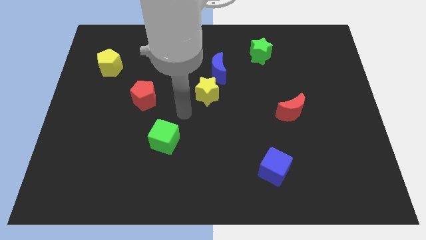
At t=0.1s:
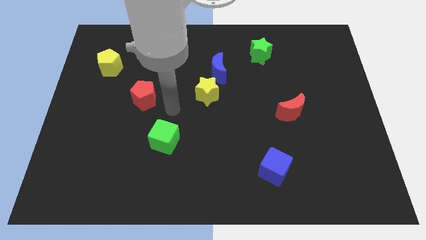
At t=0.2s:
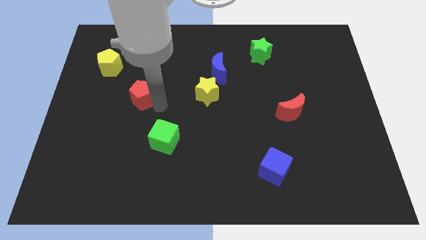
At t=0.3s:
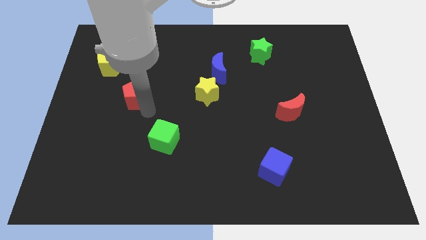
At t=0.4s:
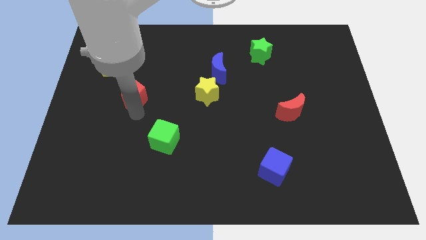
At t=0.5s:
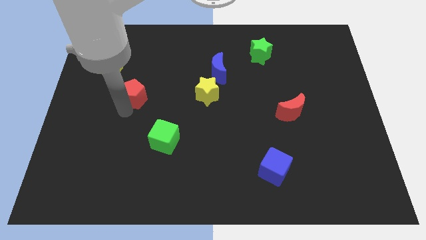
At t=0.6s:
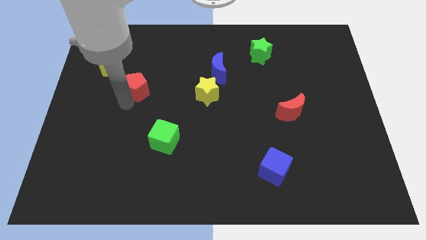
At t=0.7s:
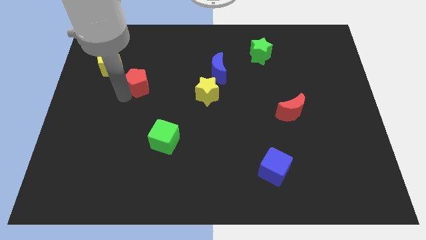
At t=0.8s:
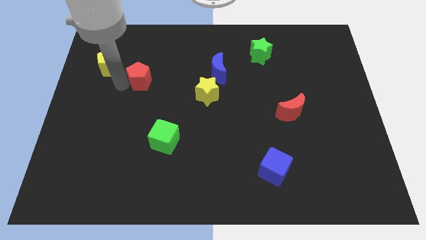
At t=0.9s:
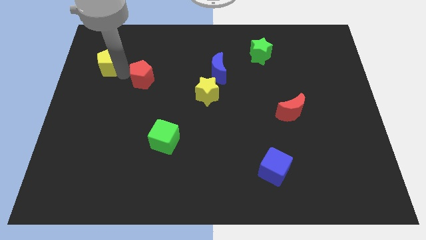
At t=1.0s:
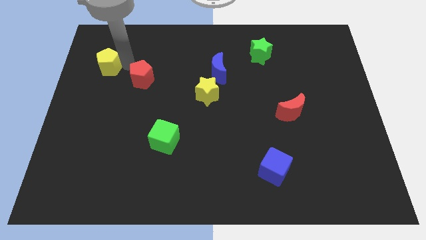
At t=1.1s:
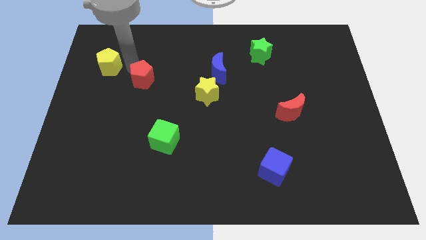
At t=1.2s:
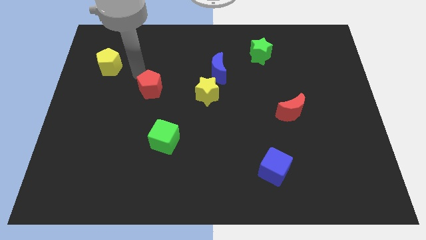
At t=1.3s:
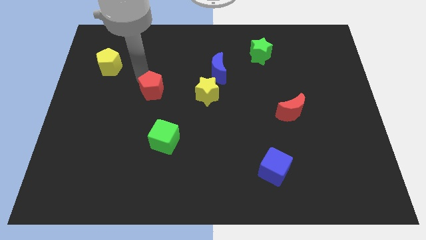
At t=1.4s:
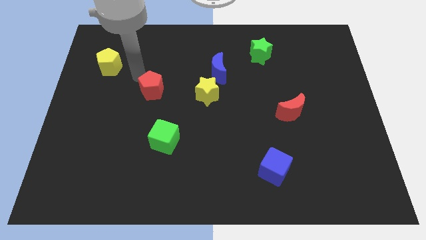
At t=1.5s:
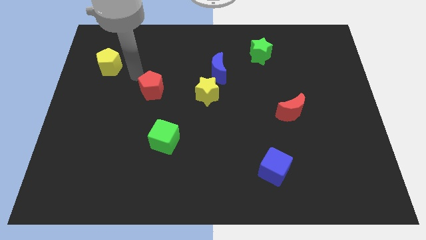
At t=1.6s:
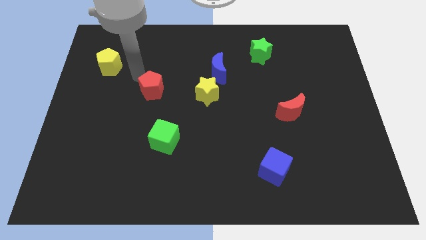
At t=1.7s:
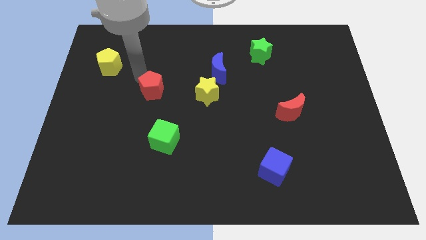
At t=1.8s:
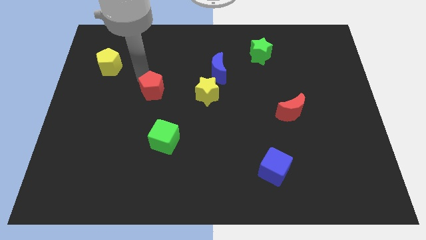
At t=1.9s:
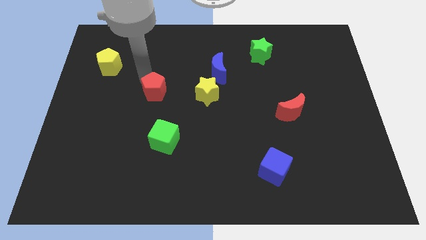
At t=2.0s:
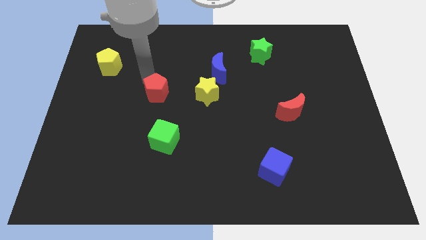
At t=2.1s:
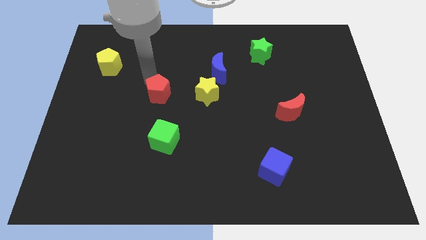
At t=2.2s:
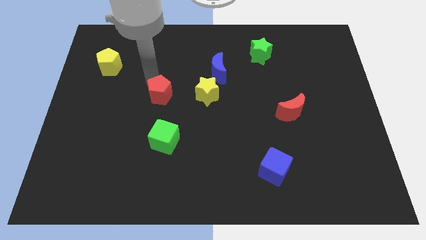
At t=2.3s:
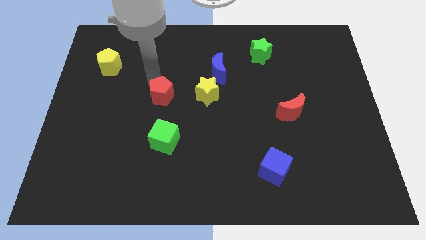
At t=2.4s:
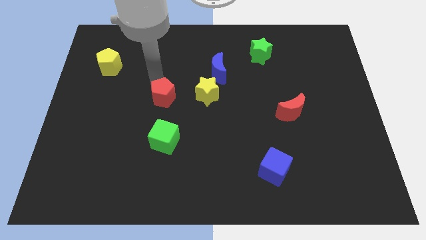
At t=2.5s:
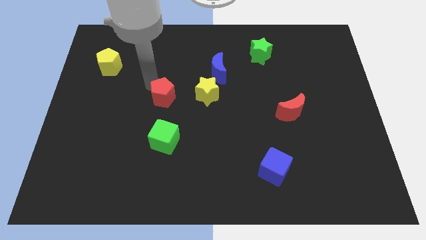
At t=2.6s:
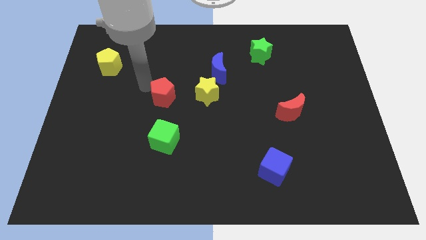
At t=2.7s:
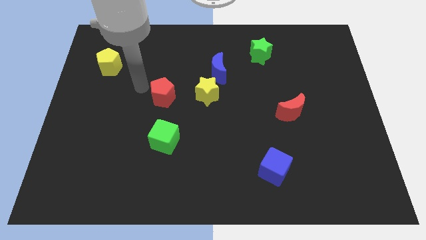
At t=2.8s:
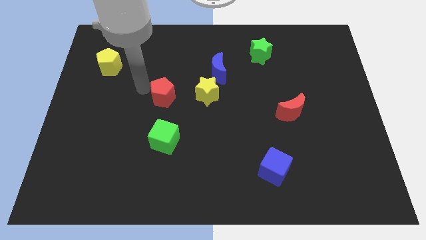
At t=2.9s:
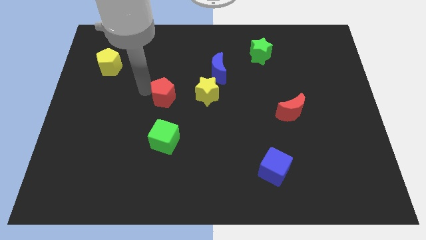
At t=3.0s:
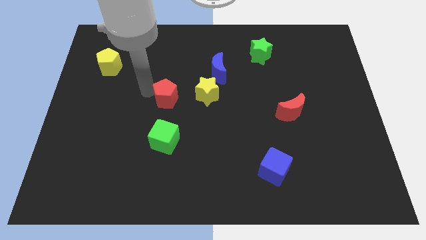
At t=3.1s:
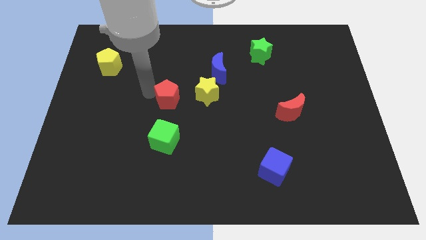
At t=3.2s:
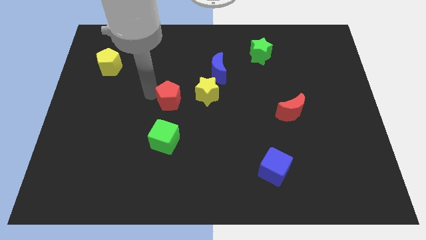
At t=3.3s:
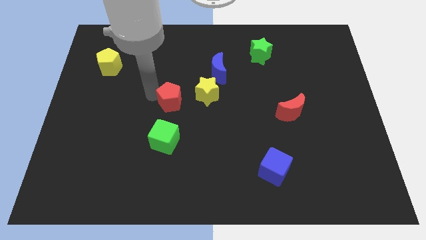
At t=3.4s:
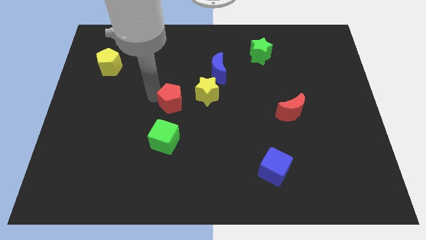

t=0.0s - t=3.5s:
slide the red pentagon right slightly

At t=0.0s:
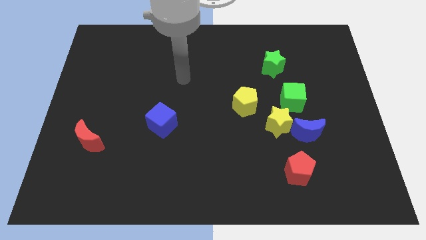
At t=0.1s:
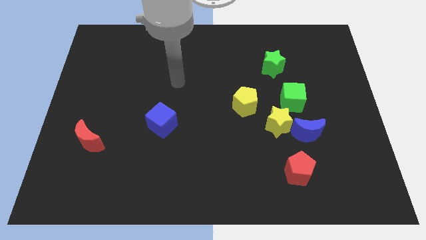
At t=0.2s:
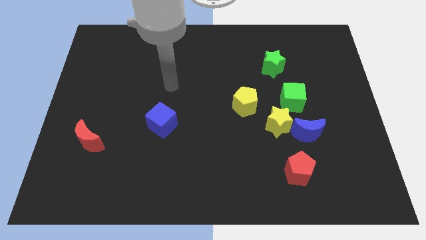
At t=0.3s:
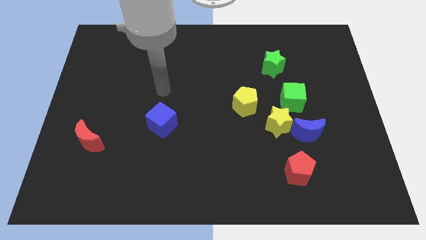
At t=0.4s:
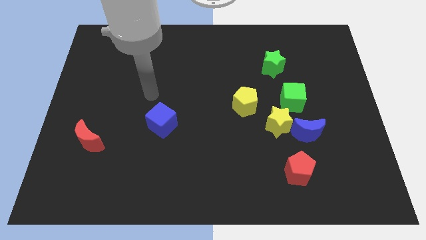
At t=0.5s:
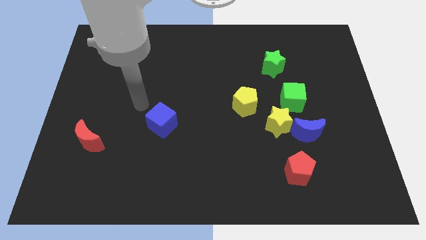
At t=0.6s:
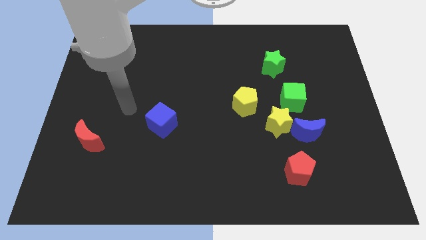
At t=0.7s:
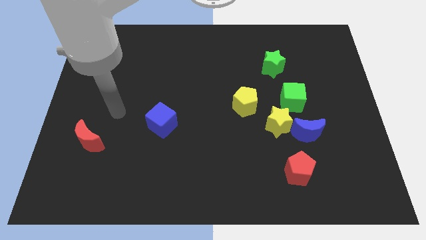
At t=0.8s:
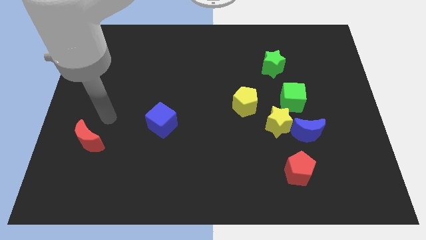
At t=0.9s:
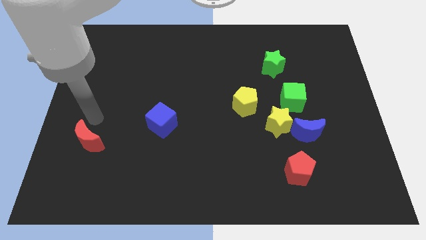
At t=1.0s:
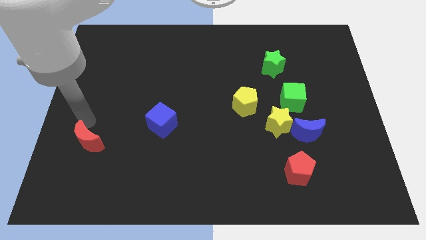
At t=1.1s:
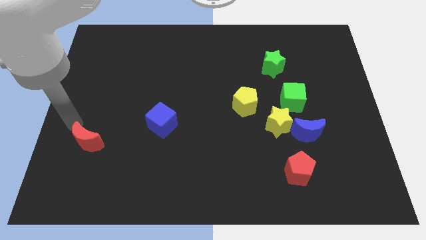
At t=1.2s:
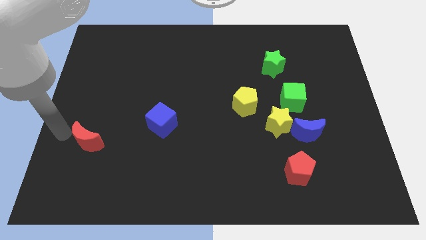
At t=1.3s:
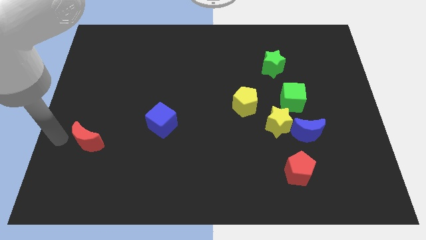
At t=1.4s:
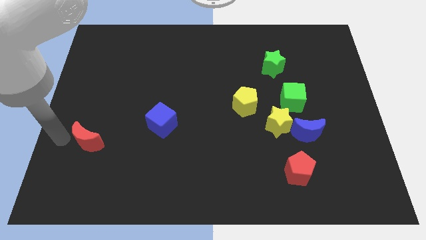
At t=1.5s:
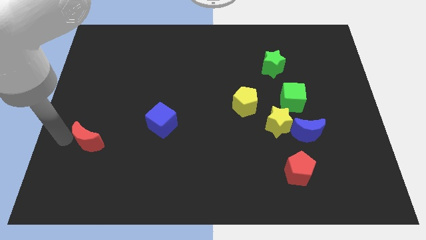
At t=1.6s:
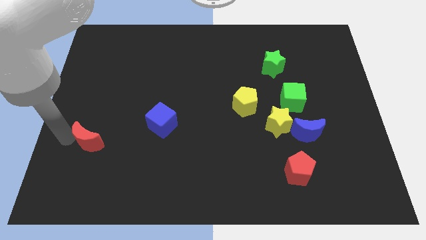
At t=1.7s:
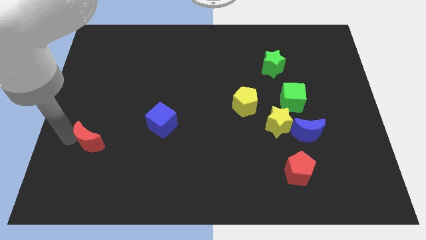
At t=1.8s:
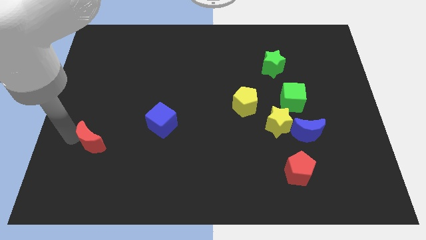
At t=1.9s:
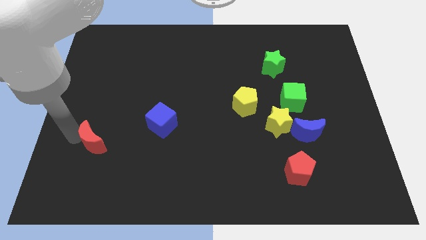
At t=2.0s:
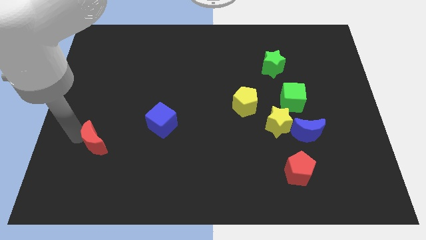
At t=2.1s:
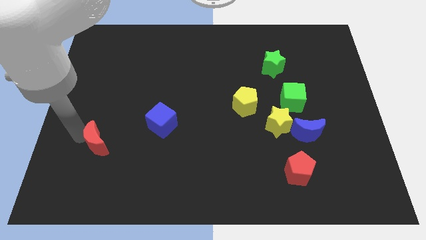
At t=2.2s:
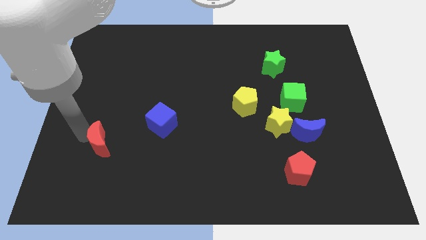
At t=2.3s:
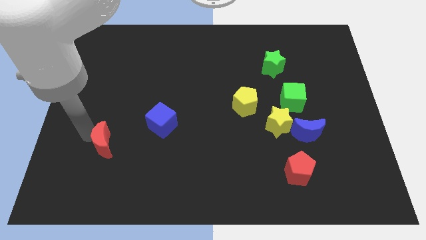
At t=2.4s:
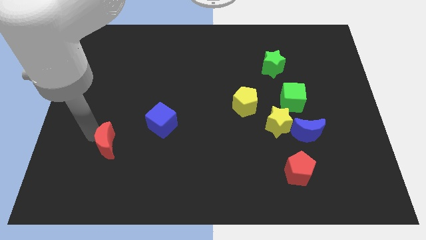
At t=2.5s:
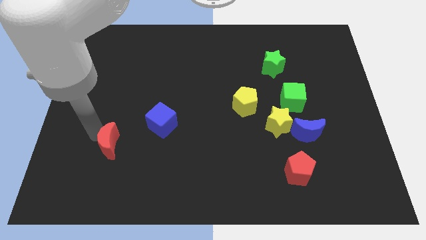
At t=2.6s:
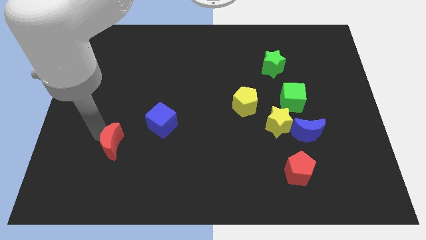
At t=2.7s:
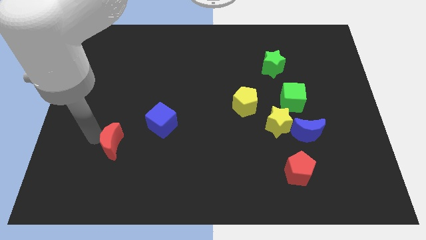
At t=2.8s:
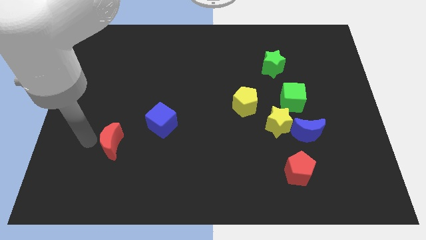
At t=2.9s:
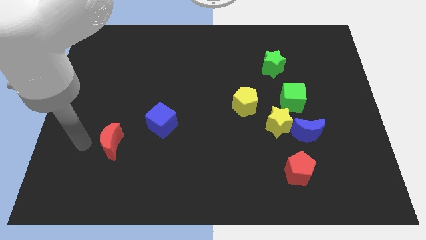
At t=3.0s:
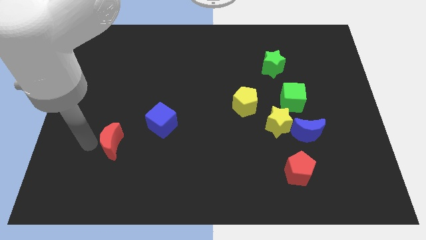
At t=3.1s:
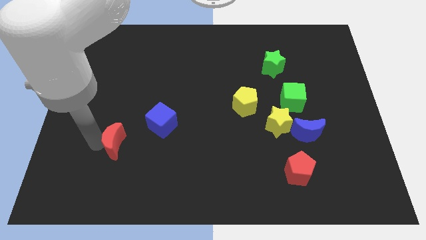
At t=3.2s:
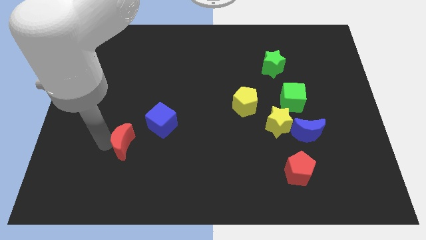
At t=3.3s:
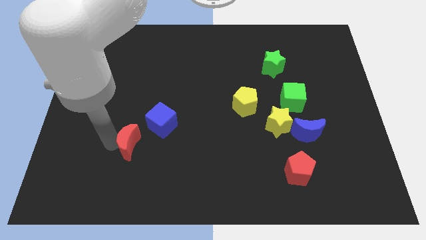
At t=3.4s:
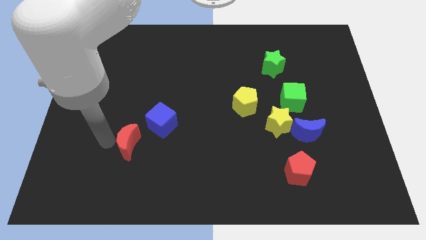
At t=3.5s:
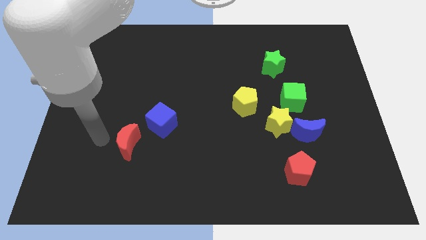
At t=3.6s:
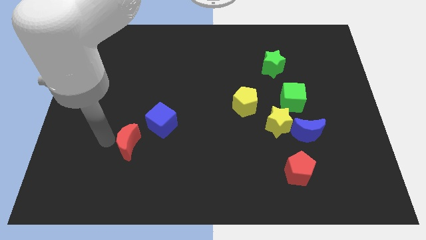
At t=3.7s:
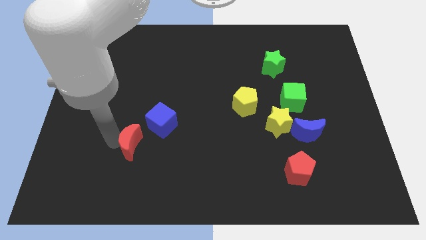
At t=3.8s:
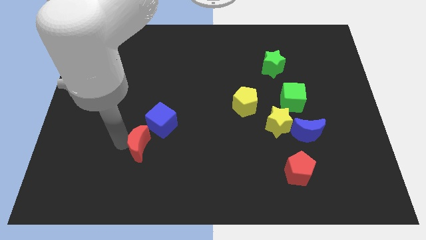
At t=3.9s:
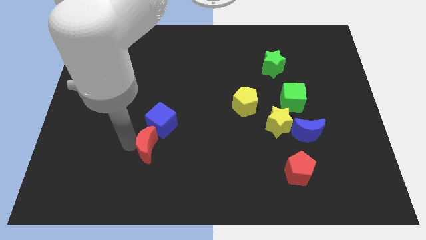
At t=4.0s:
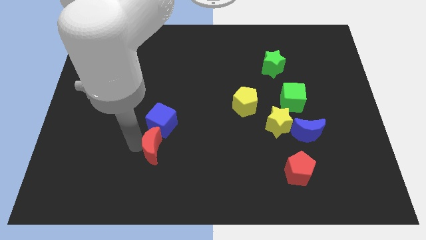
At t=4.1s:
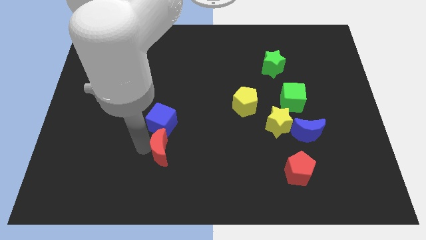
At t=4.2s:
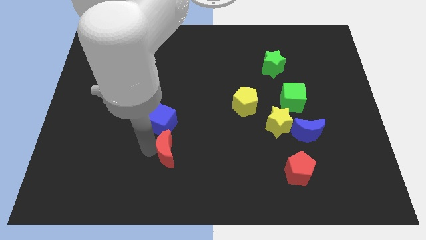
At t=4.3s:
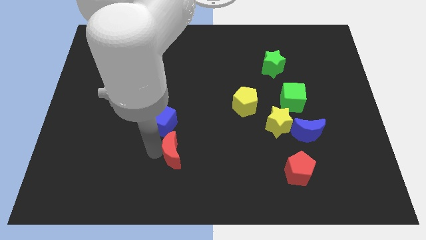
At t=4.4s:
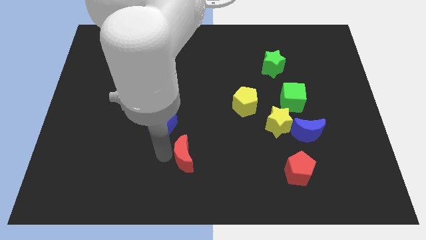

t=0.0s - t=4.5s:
push the red moon right

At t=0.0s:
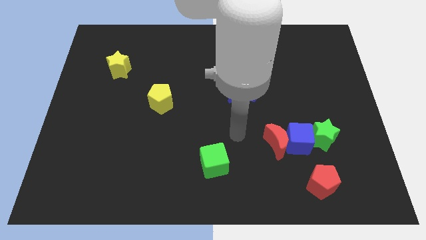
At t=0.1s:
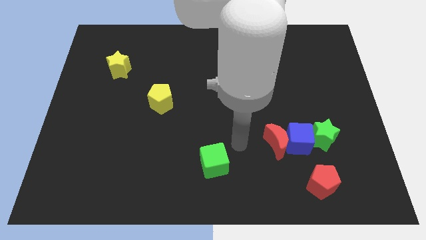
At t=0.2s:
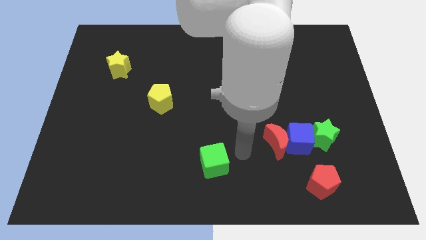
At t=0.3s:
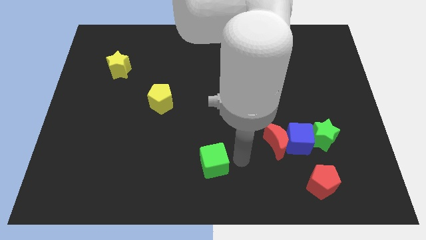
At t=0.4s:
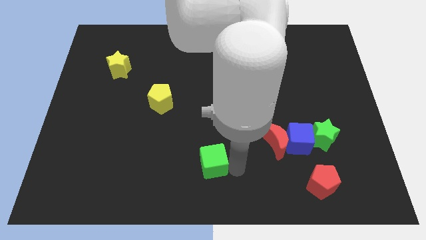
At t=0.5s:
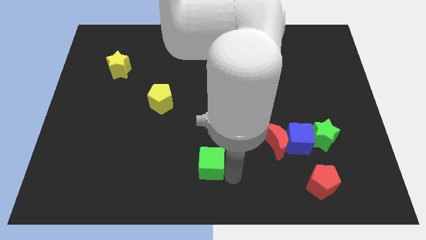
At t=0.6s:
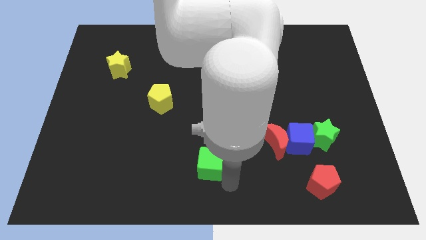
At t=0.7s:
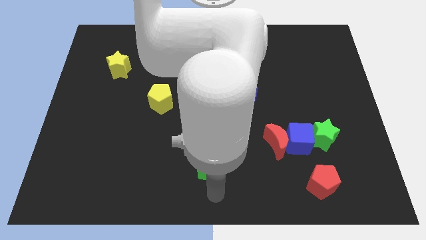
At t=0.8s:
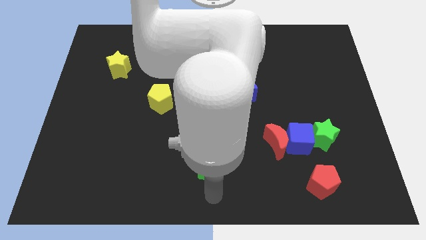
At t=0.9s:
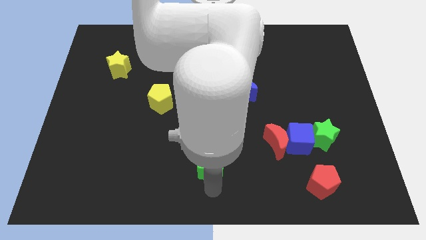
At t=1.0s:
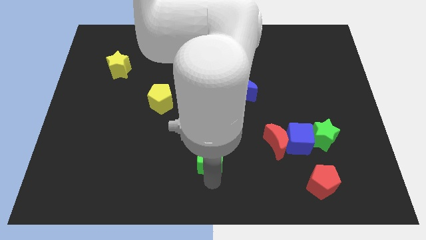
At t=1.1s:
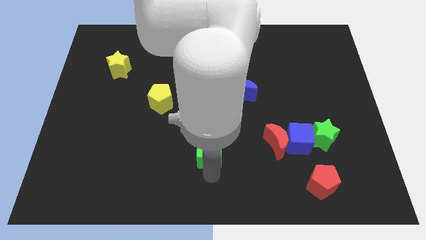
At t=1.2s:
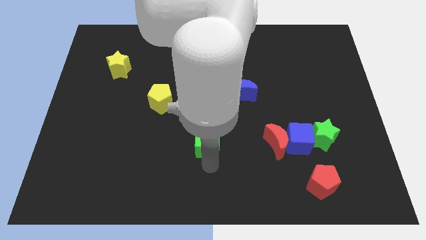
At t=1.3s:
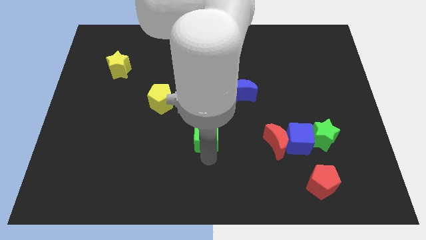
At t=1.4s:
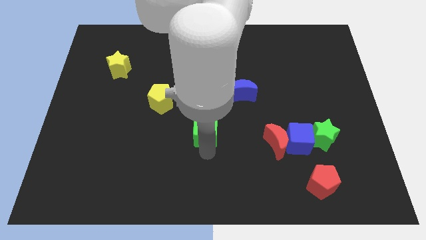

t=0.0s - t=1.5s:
push the green cube up a little bit
